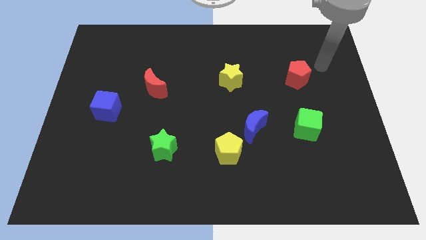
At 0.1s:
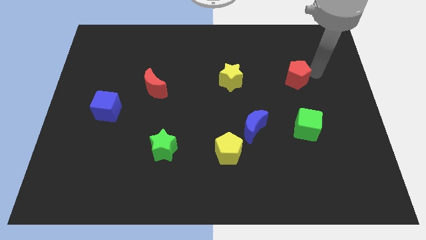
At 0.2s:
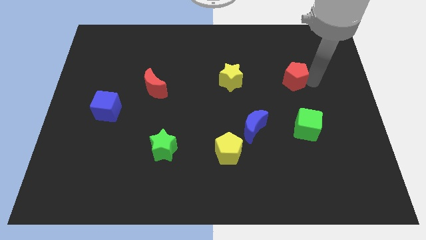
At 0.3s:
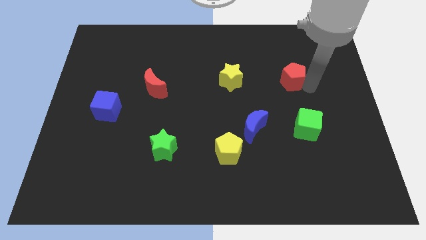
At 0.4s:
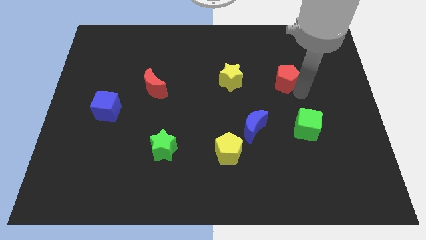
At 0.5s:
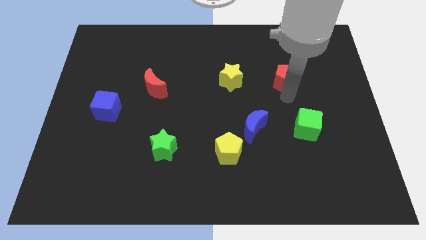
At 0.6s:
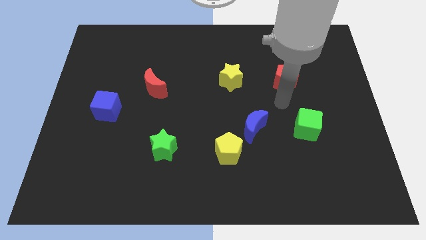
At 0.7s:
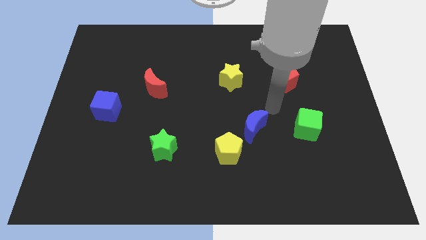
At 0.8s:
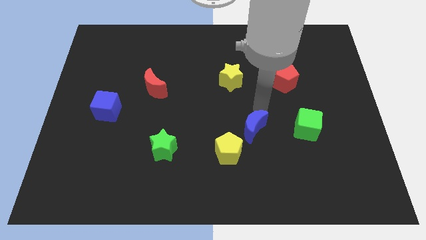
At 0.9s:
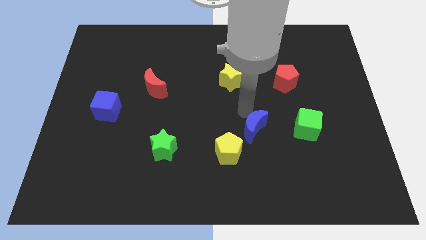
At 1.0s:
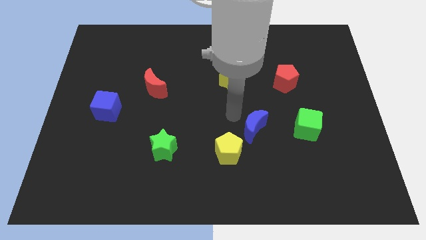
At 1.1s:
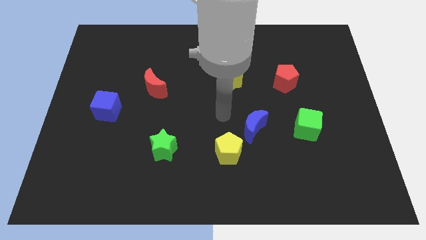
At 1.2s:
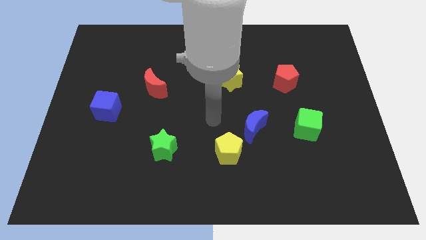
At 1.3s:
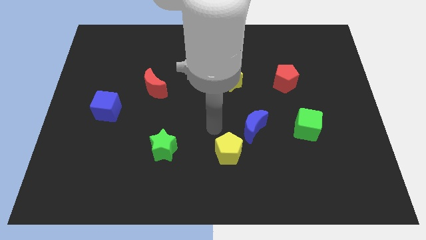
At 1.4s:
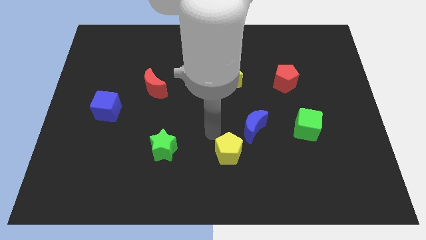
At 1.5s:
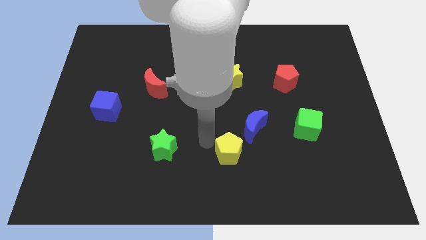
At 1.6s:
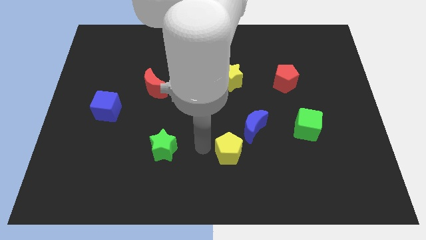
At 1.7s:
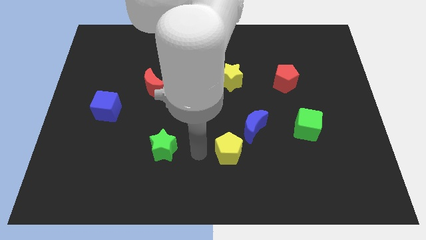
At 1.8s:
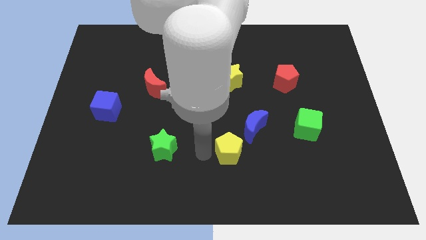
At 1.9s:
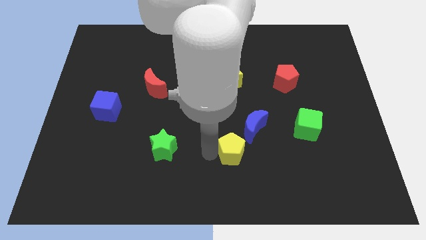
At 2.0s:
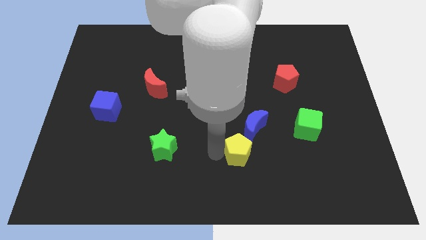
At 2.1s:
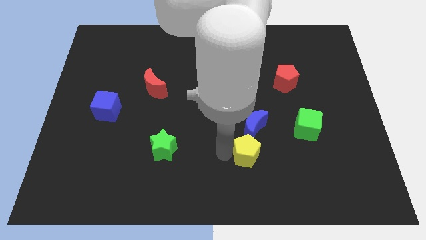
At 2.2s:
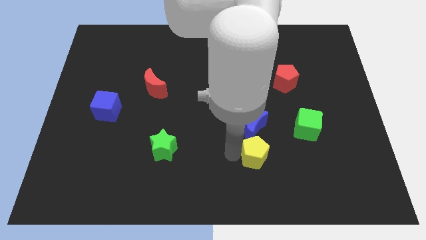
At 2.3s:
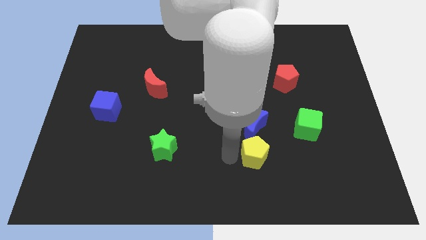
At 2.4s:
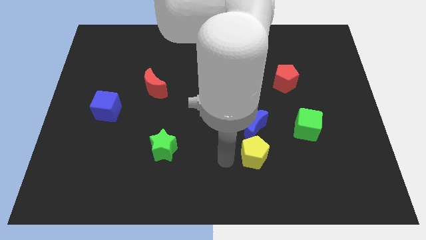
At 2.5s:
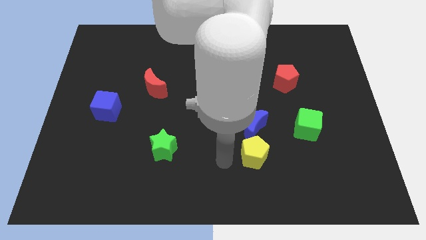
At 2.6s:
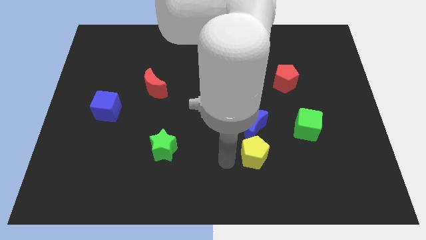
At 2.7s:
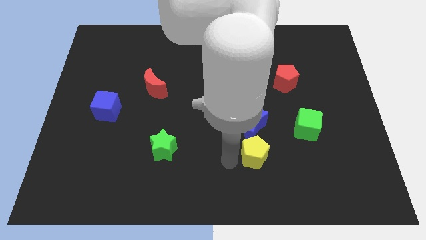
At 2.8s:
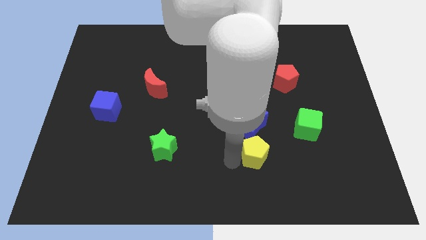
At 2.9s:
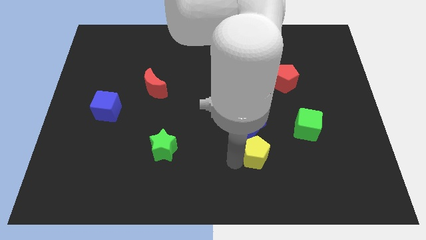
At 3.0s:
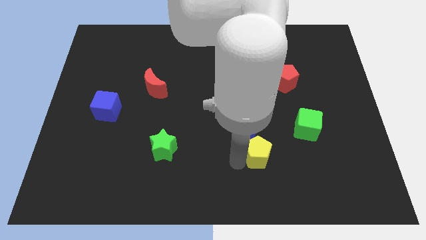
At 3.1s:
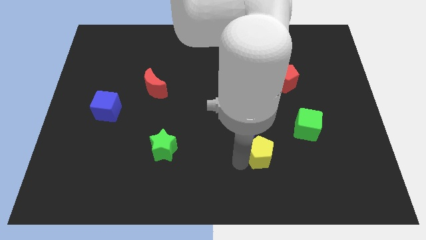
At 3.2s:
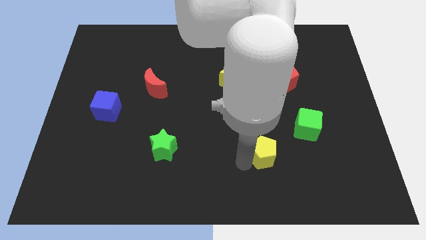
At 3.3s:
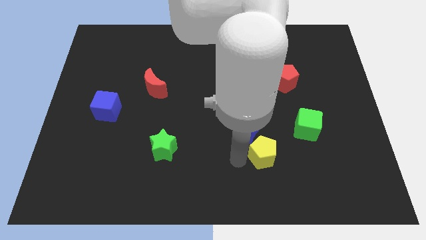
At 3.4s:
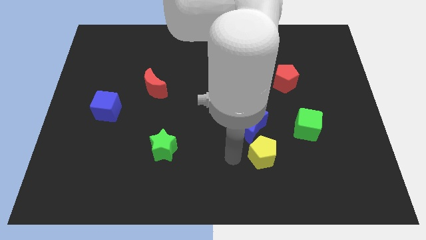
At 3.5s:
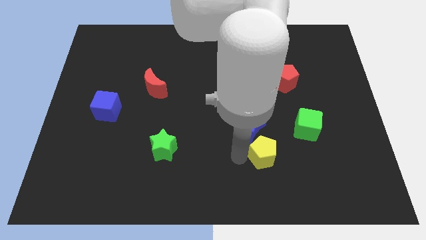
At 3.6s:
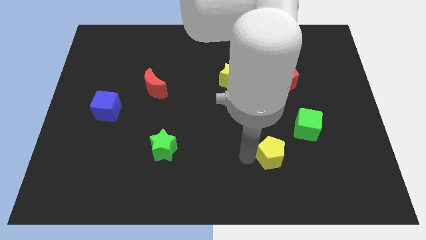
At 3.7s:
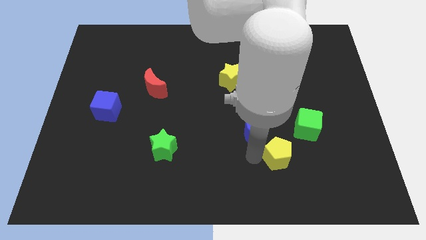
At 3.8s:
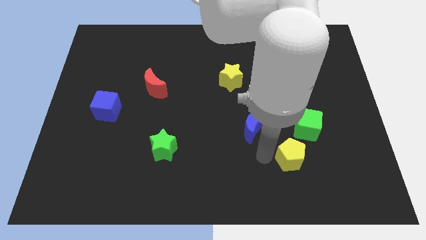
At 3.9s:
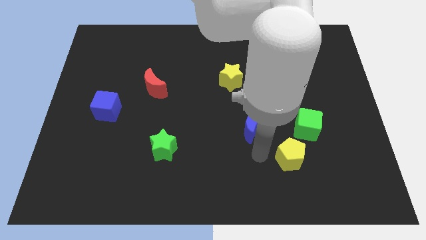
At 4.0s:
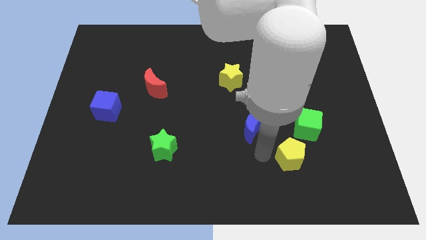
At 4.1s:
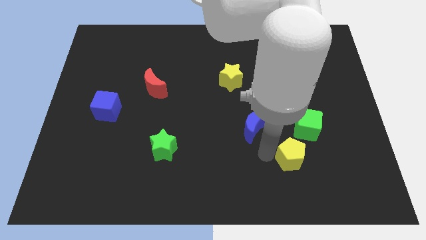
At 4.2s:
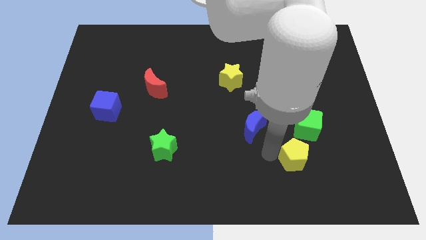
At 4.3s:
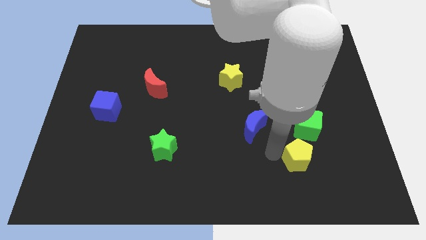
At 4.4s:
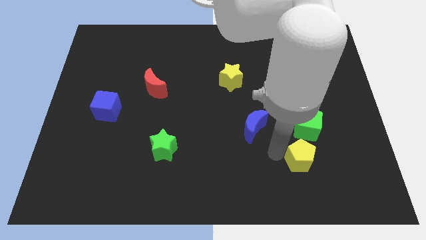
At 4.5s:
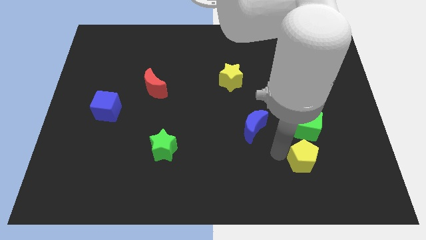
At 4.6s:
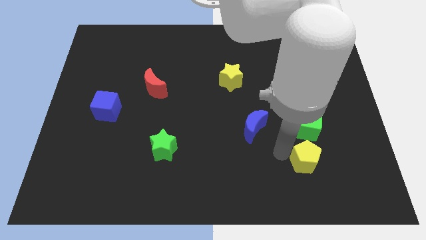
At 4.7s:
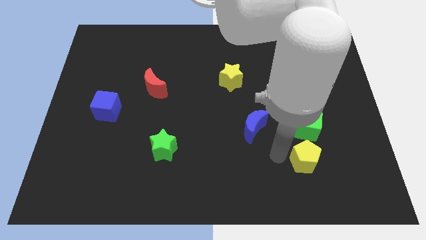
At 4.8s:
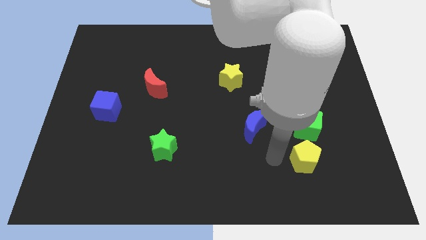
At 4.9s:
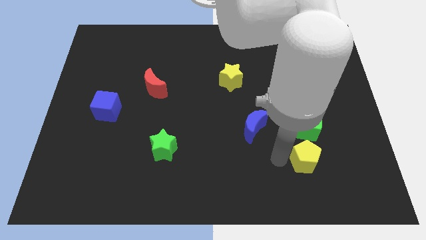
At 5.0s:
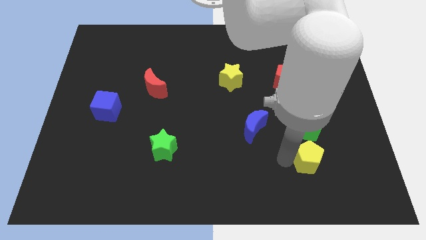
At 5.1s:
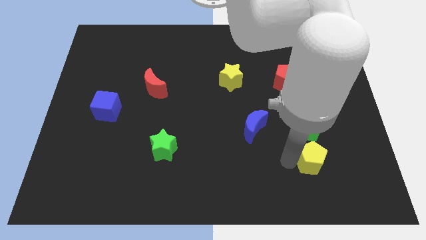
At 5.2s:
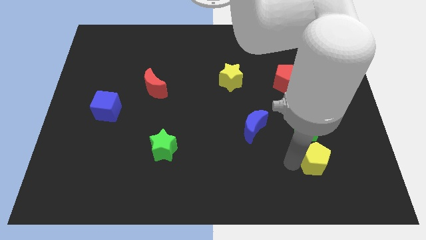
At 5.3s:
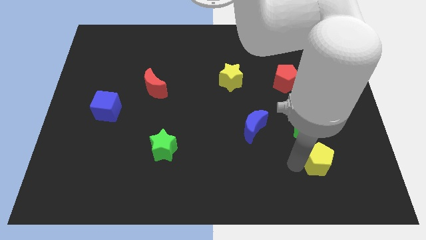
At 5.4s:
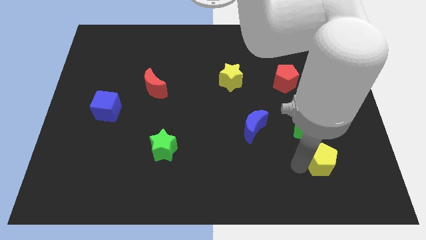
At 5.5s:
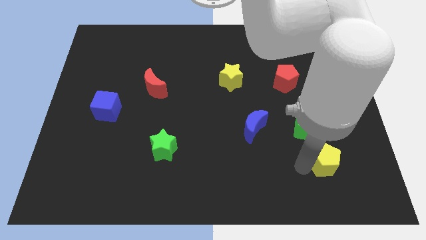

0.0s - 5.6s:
slide the yellow pentagon diagonally down and to the right of the green cube

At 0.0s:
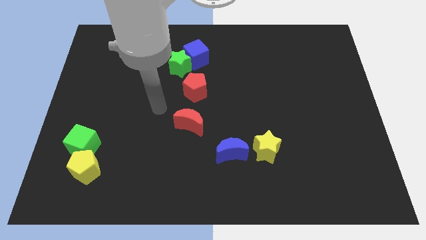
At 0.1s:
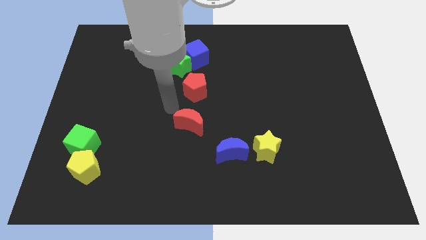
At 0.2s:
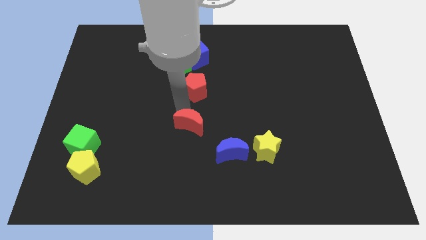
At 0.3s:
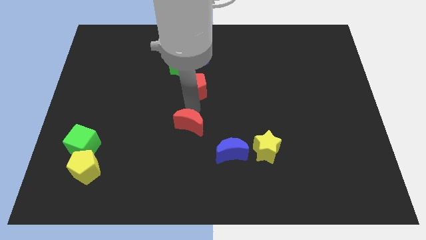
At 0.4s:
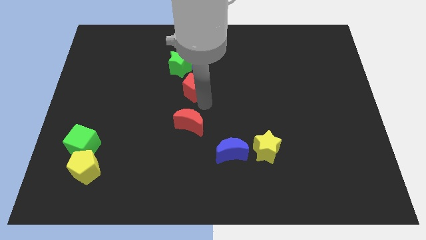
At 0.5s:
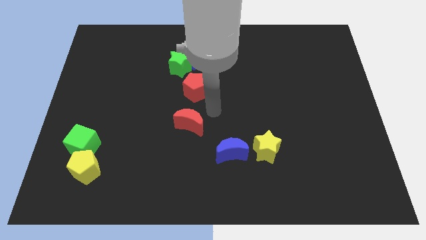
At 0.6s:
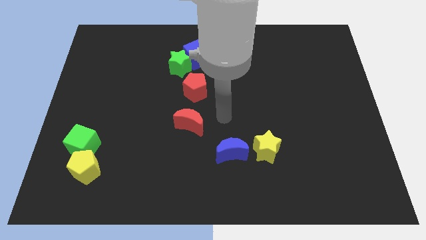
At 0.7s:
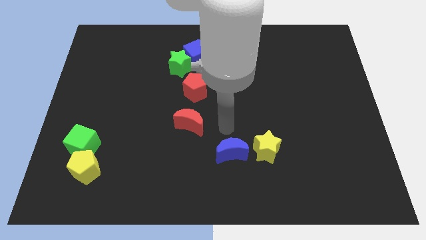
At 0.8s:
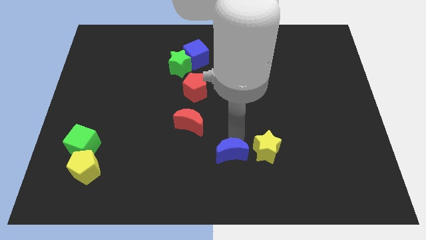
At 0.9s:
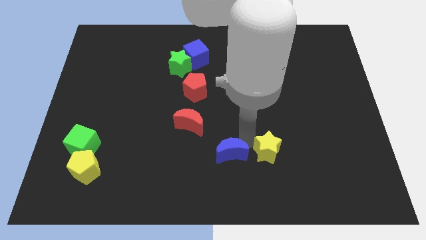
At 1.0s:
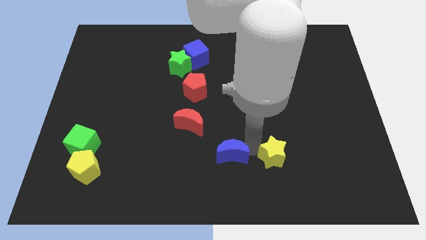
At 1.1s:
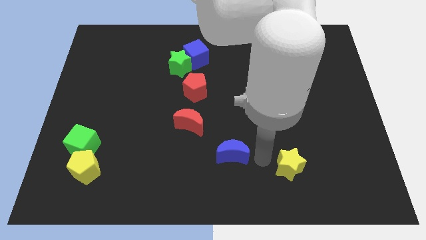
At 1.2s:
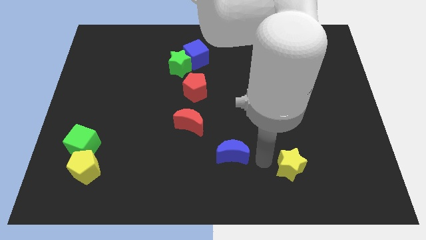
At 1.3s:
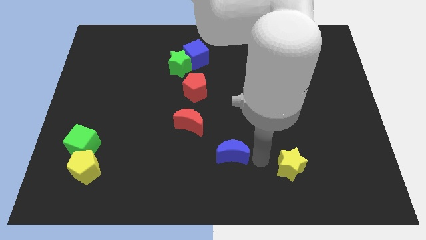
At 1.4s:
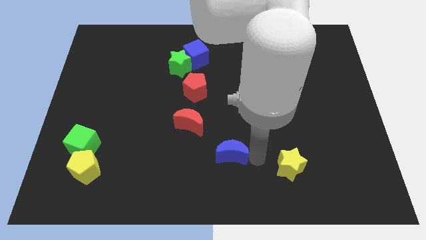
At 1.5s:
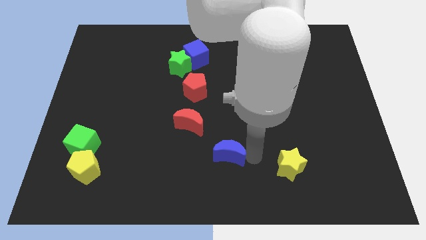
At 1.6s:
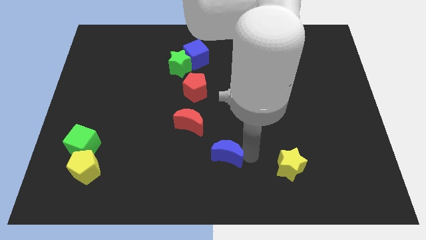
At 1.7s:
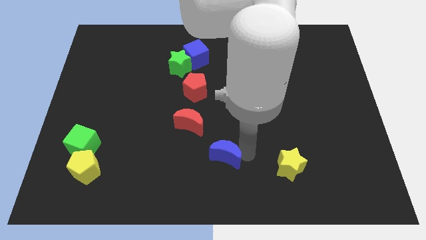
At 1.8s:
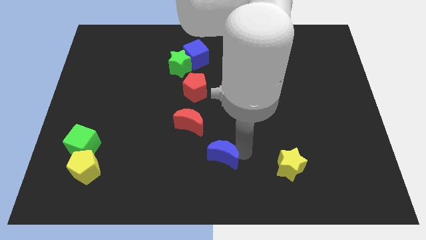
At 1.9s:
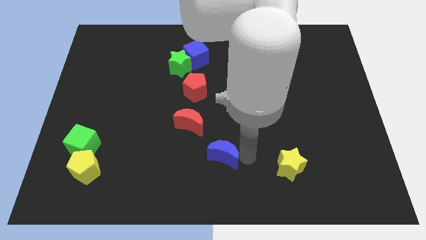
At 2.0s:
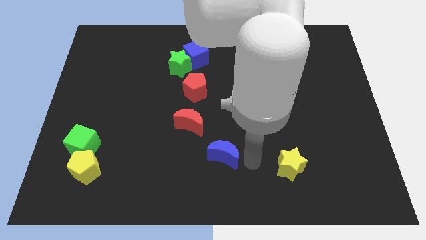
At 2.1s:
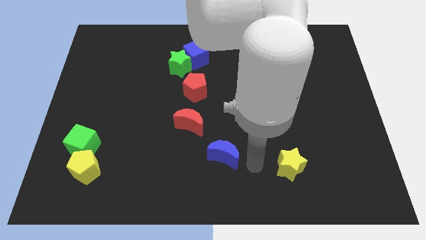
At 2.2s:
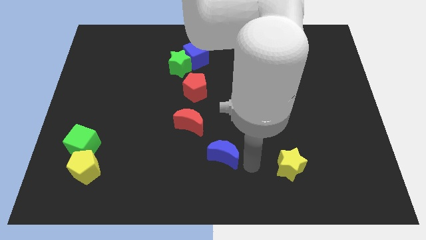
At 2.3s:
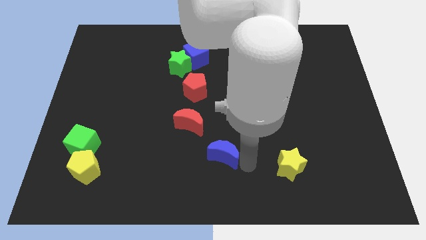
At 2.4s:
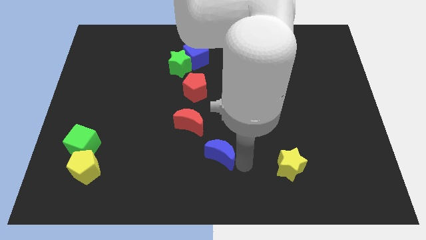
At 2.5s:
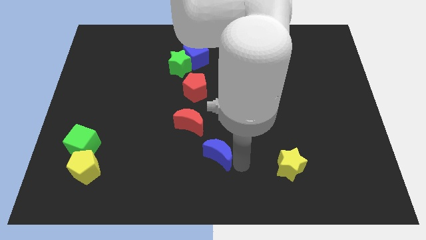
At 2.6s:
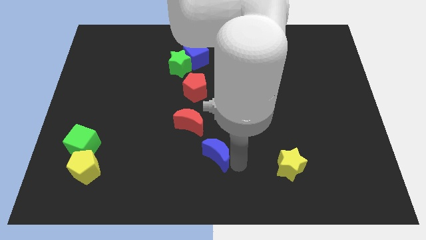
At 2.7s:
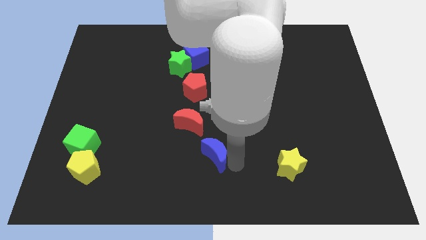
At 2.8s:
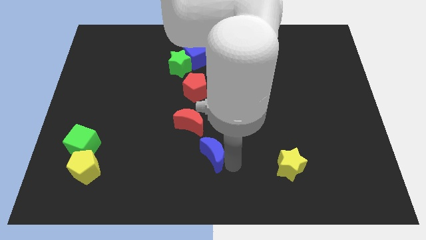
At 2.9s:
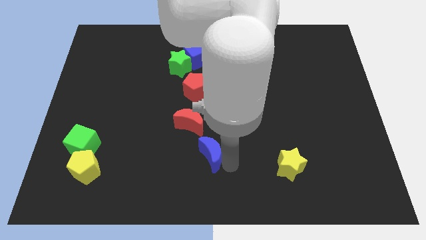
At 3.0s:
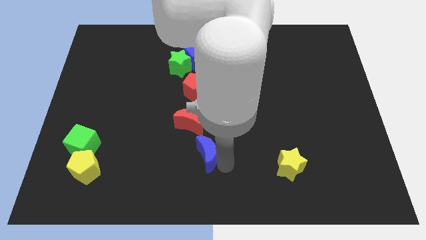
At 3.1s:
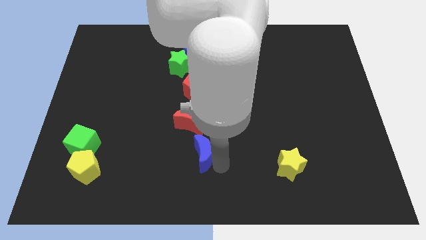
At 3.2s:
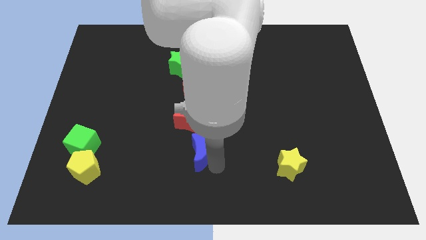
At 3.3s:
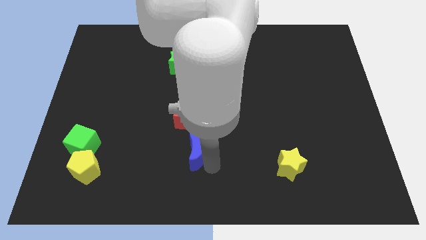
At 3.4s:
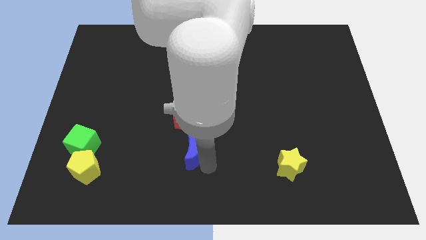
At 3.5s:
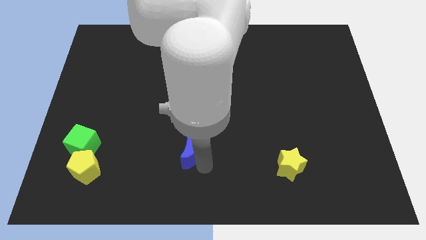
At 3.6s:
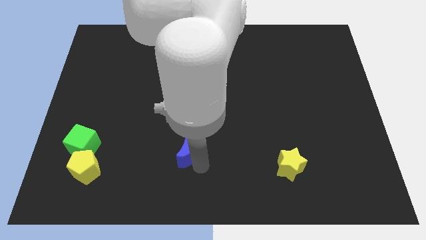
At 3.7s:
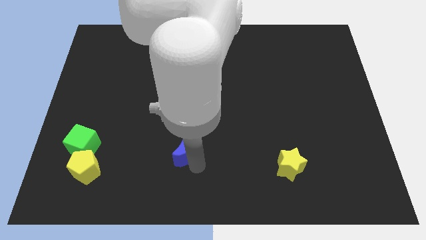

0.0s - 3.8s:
put the blue moon diagonally down and to the left of the red moon
